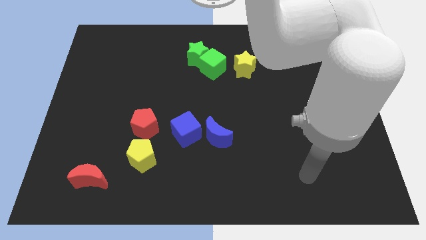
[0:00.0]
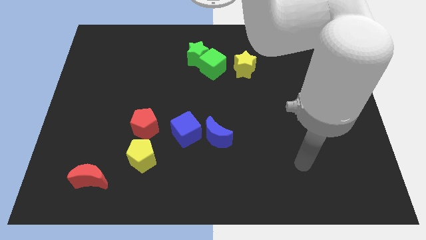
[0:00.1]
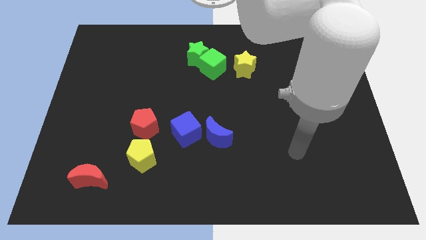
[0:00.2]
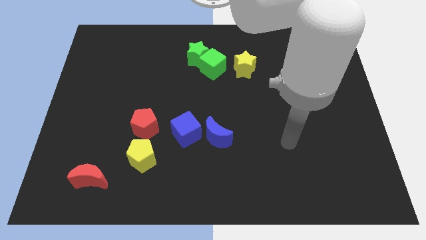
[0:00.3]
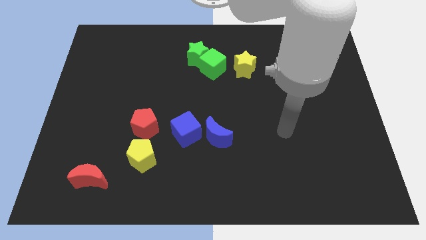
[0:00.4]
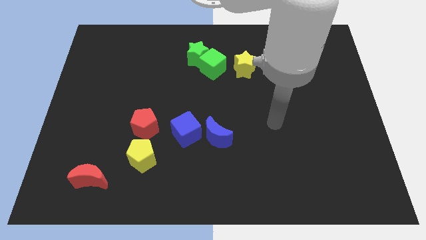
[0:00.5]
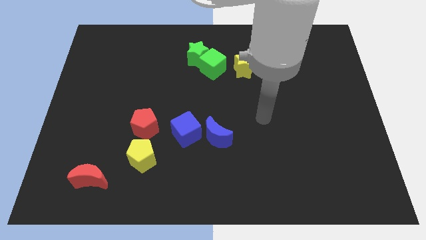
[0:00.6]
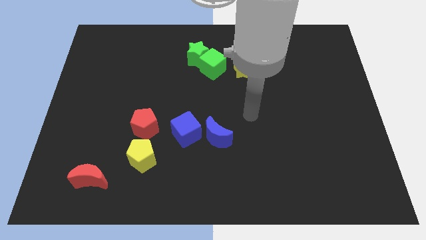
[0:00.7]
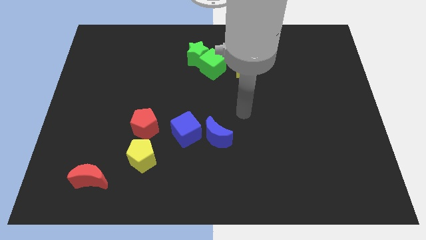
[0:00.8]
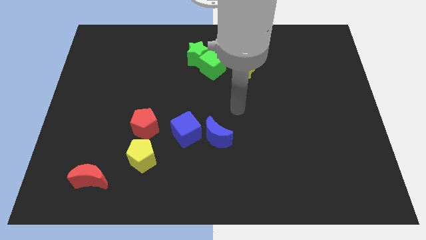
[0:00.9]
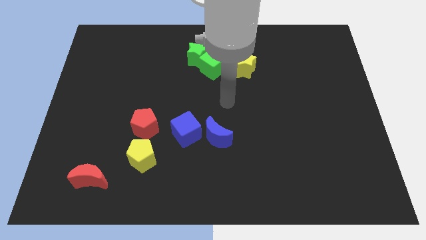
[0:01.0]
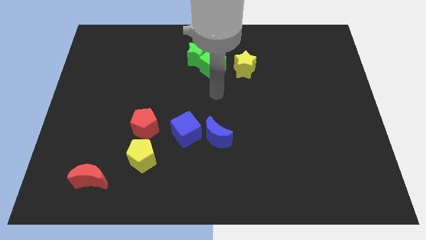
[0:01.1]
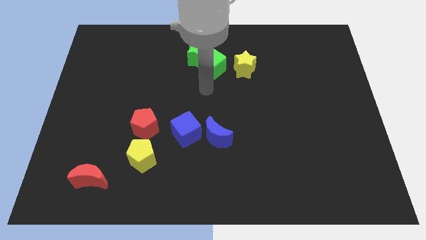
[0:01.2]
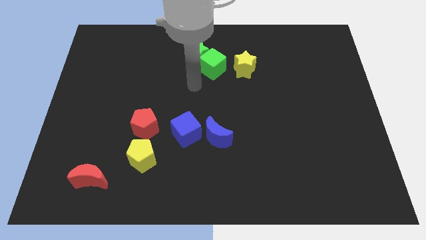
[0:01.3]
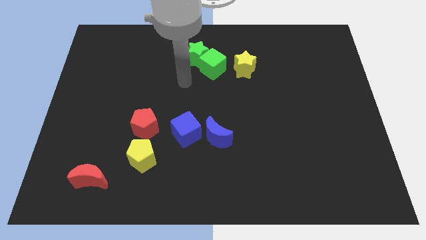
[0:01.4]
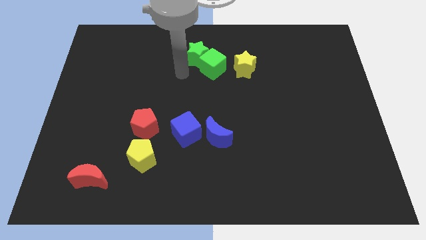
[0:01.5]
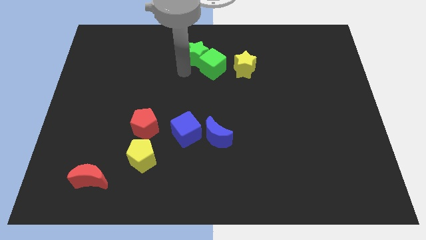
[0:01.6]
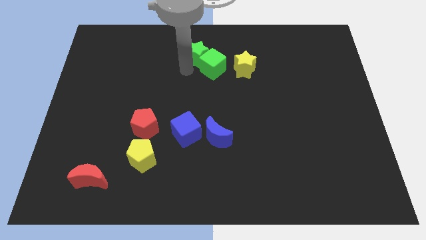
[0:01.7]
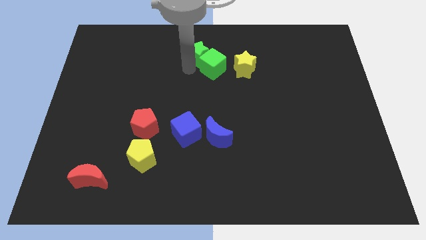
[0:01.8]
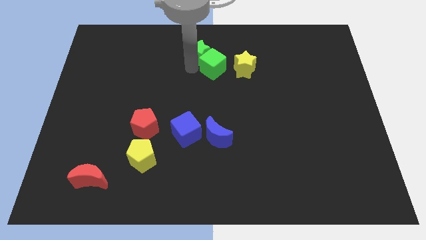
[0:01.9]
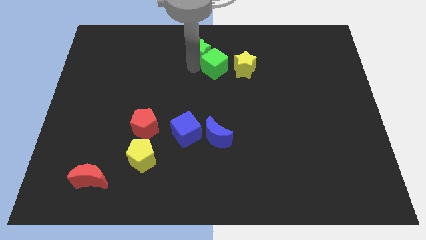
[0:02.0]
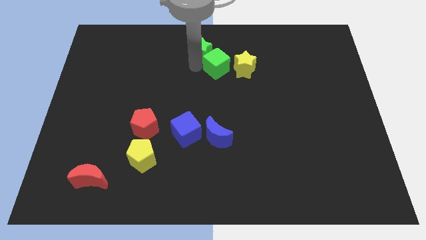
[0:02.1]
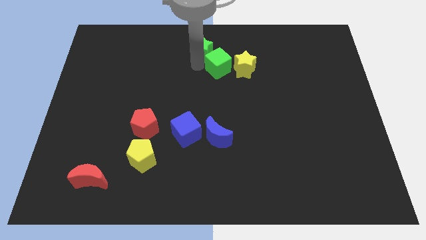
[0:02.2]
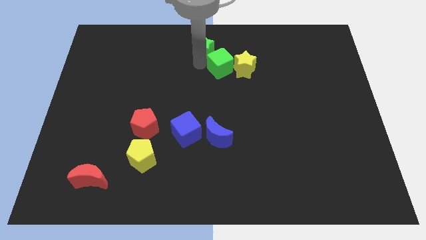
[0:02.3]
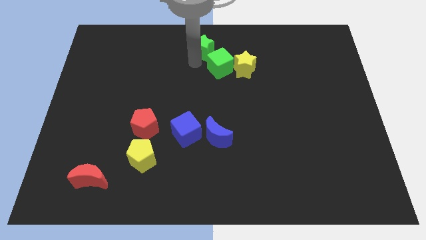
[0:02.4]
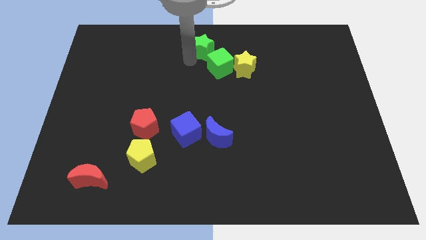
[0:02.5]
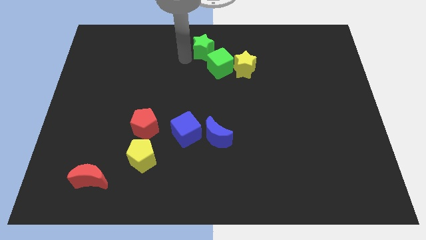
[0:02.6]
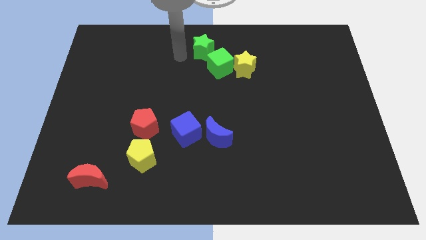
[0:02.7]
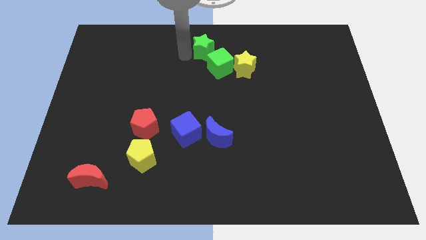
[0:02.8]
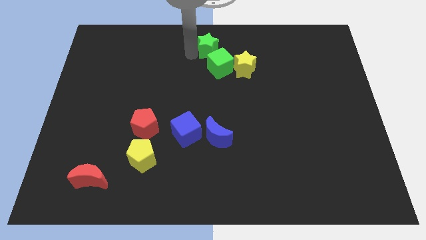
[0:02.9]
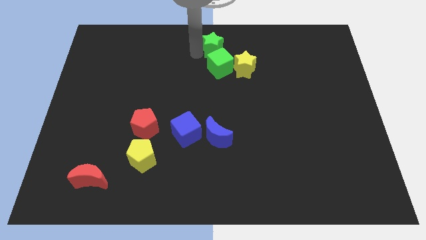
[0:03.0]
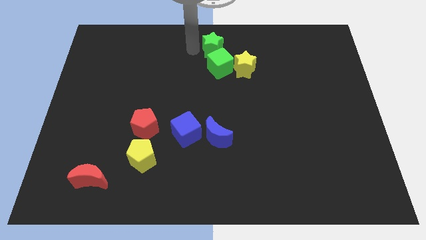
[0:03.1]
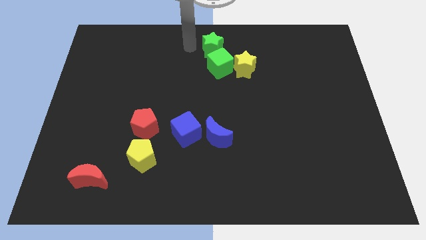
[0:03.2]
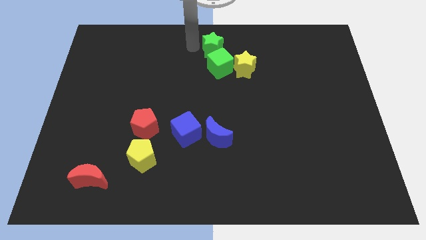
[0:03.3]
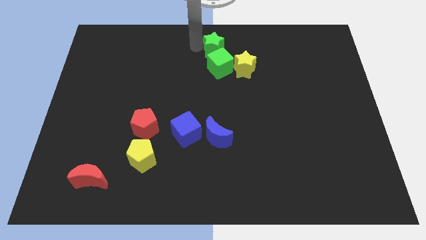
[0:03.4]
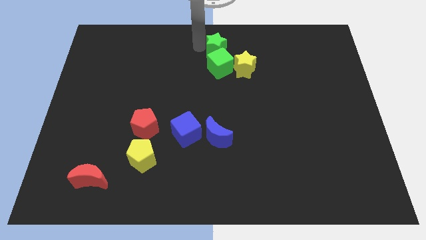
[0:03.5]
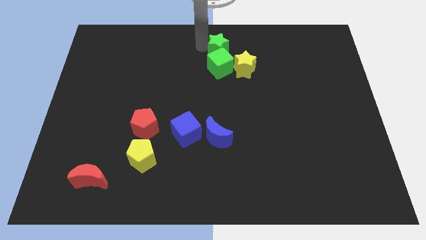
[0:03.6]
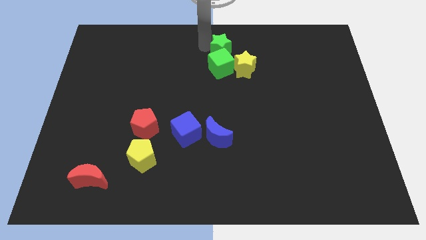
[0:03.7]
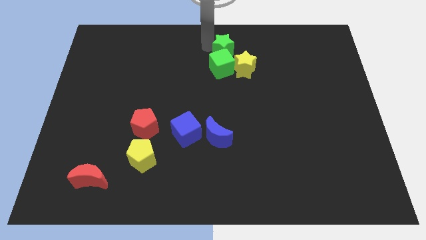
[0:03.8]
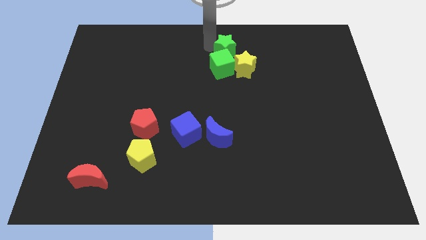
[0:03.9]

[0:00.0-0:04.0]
push the green star right a bit

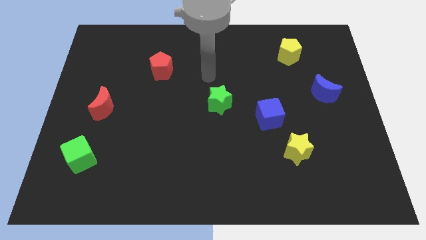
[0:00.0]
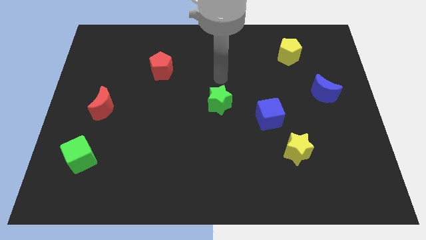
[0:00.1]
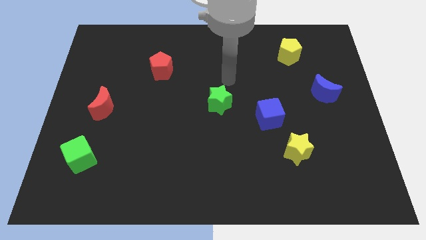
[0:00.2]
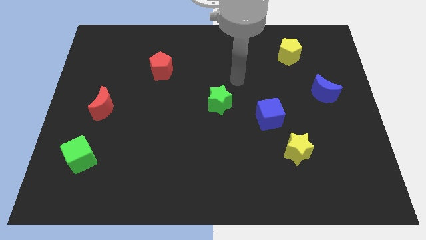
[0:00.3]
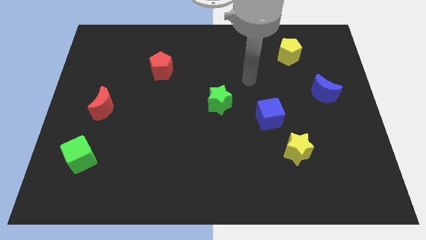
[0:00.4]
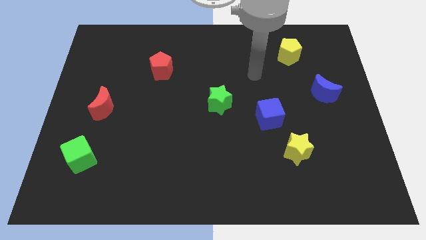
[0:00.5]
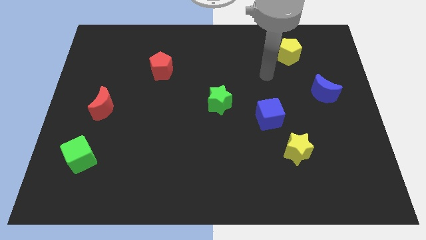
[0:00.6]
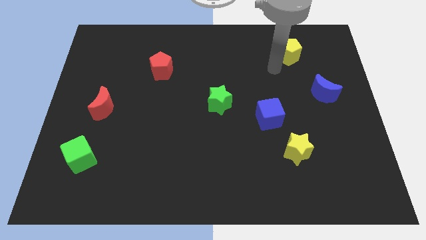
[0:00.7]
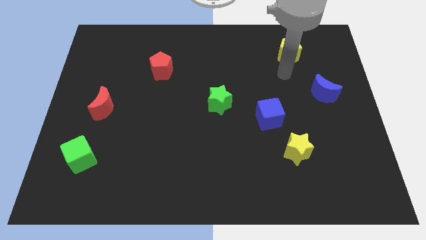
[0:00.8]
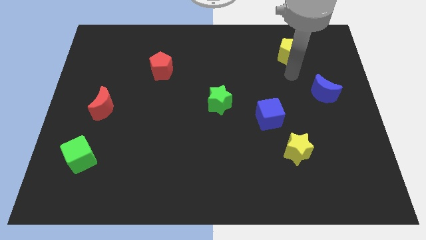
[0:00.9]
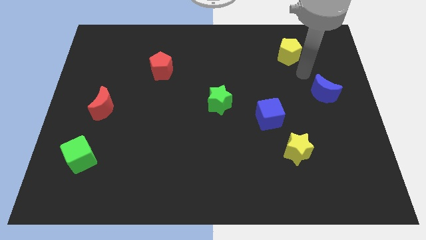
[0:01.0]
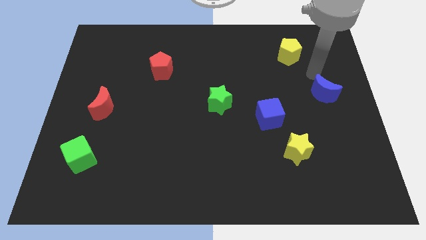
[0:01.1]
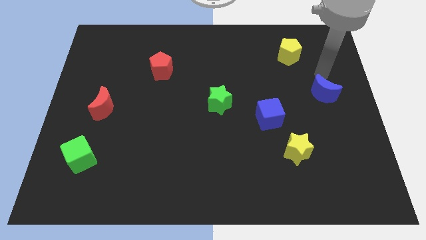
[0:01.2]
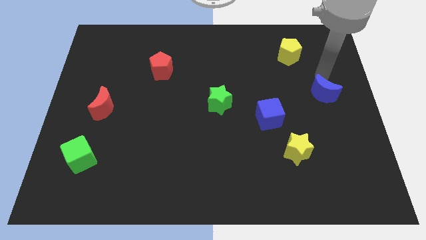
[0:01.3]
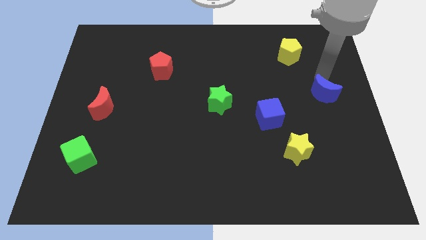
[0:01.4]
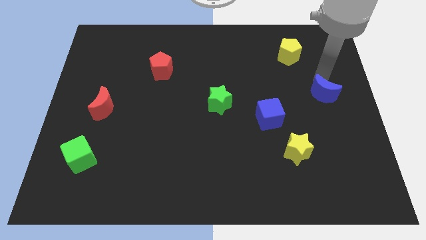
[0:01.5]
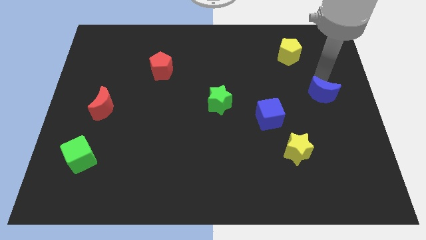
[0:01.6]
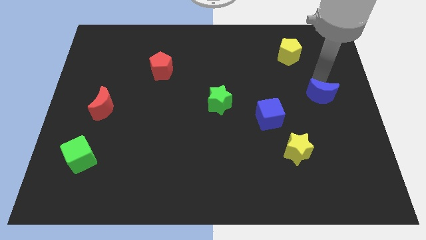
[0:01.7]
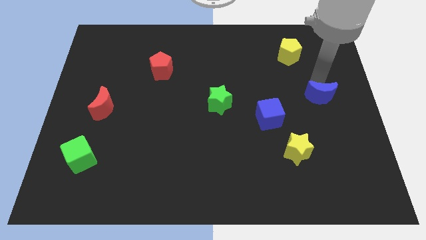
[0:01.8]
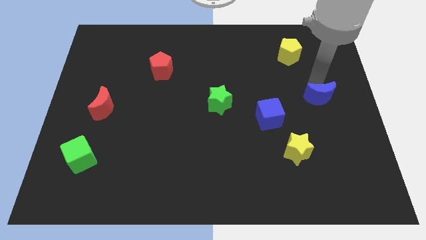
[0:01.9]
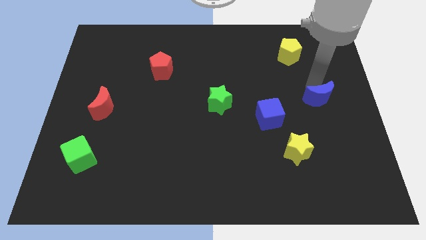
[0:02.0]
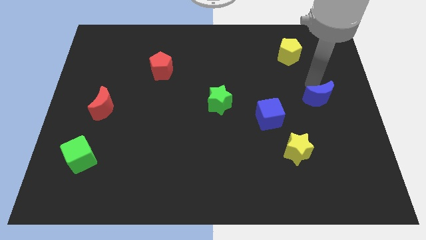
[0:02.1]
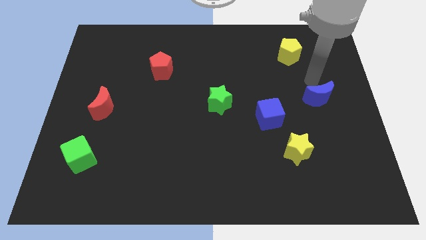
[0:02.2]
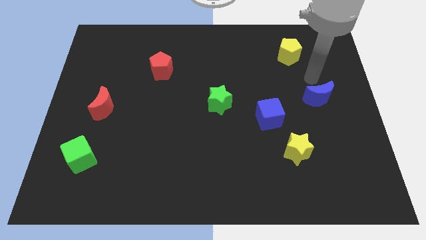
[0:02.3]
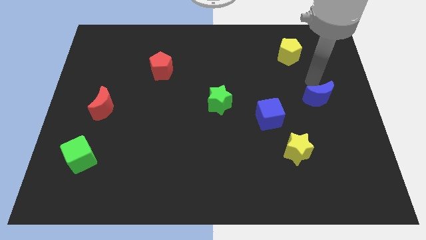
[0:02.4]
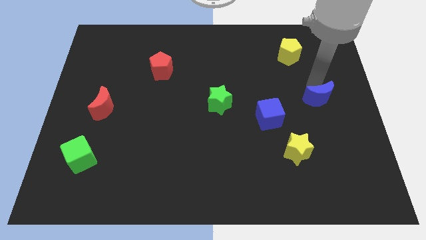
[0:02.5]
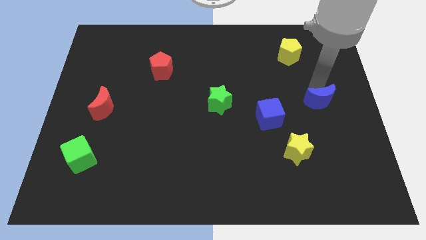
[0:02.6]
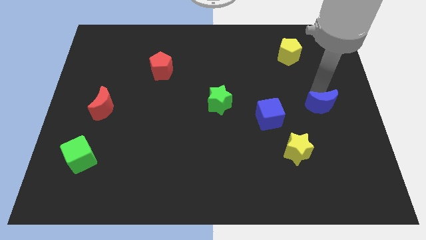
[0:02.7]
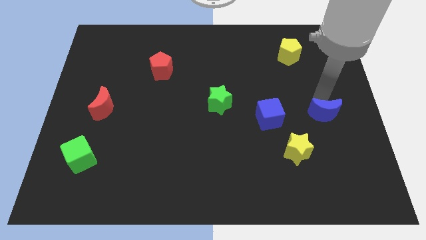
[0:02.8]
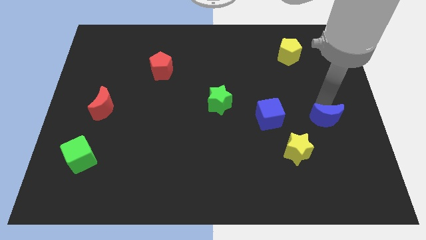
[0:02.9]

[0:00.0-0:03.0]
slide the blue moon downwards a little bit

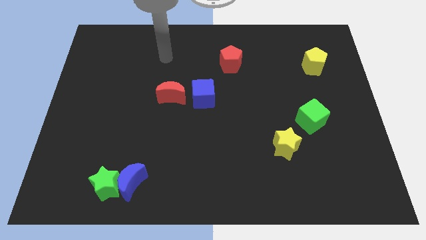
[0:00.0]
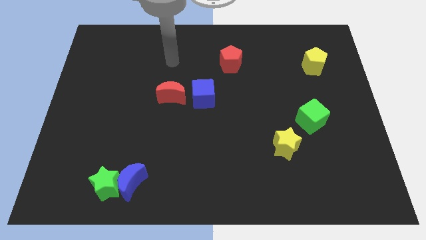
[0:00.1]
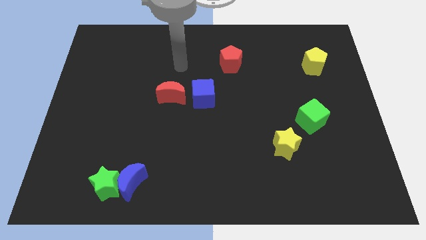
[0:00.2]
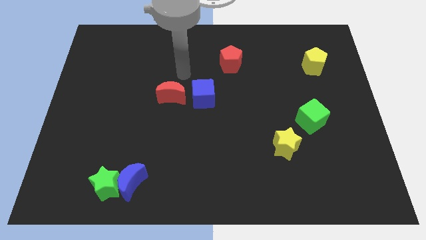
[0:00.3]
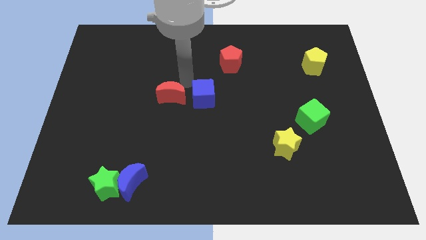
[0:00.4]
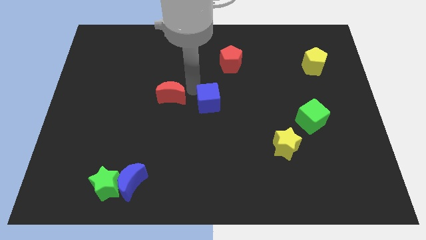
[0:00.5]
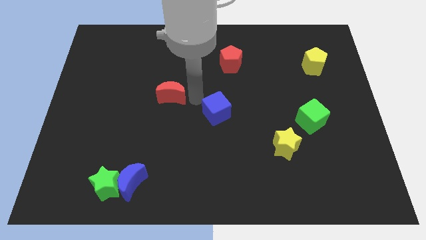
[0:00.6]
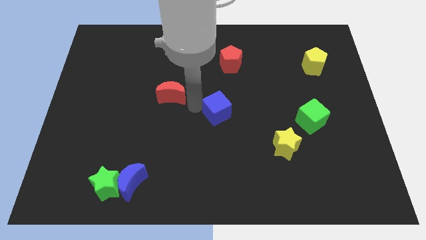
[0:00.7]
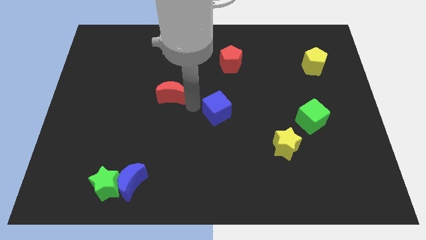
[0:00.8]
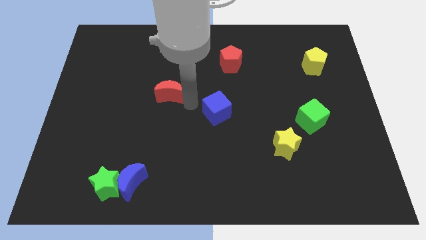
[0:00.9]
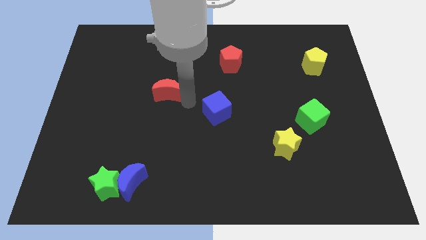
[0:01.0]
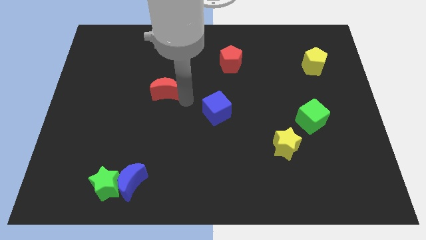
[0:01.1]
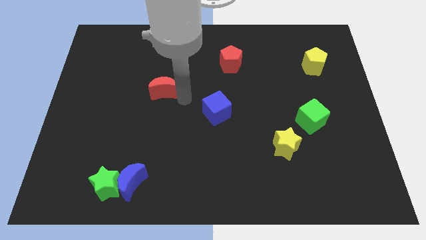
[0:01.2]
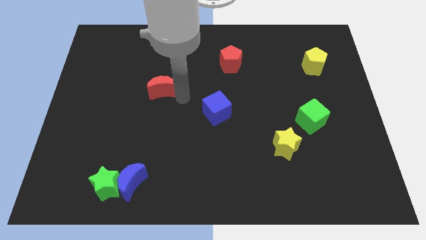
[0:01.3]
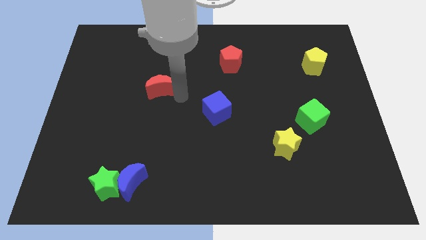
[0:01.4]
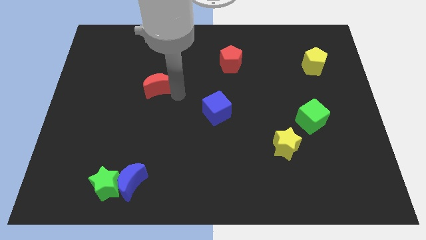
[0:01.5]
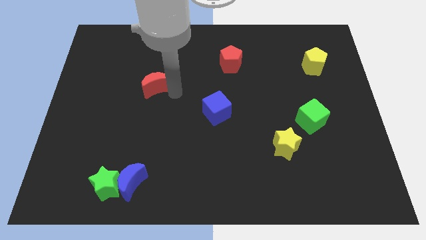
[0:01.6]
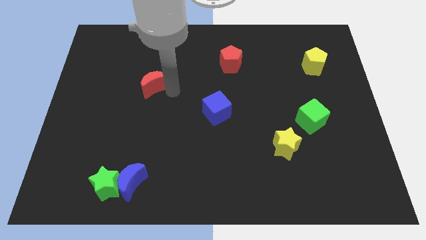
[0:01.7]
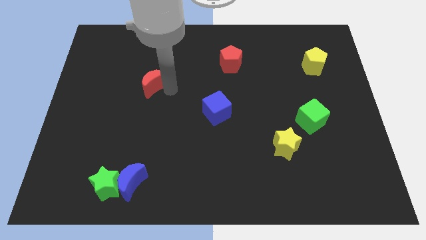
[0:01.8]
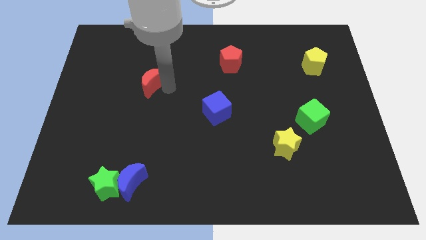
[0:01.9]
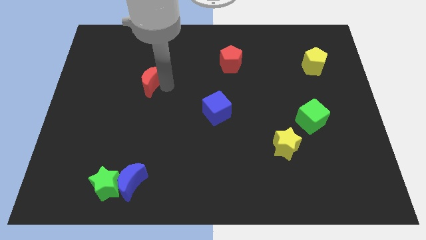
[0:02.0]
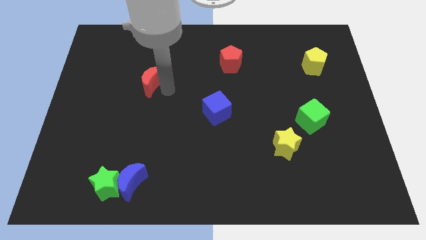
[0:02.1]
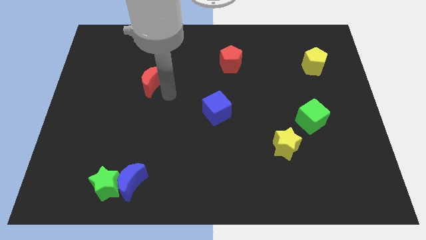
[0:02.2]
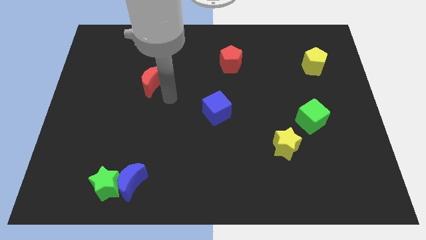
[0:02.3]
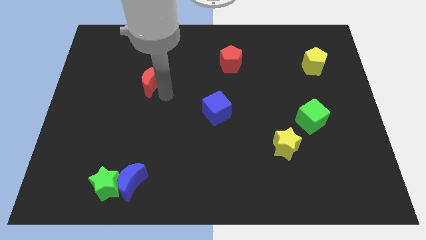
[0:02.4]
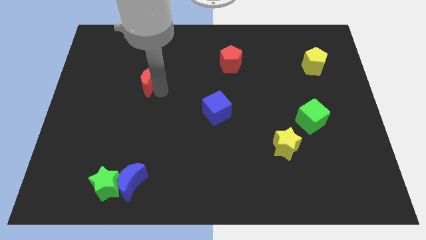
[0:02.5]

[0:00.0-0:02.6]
move the red moon upwards and left a little bit
